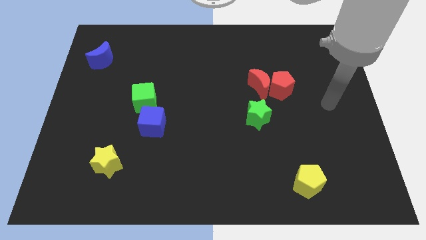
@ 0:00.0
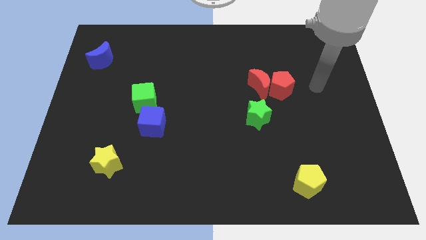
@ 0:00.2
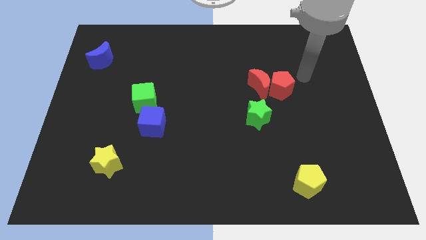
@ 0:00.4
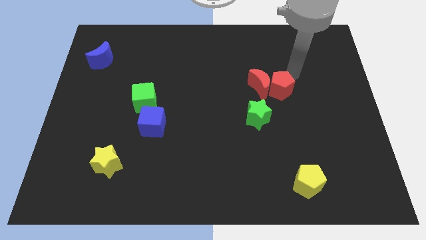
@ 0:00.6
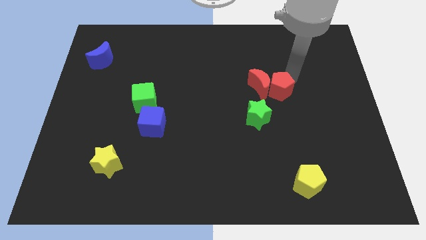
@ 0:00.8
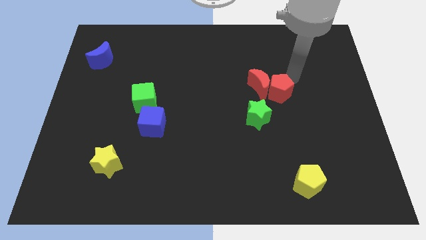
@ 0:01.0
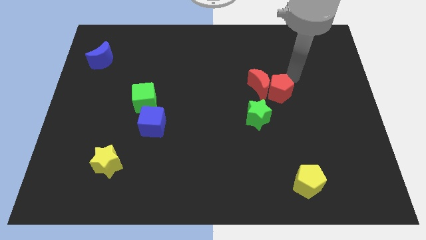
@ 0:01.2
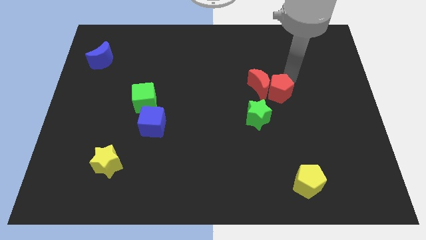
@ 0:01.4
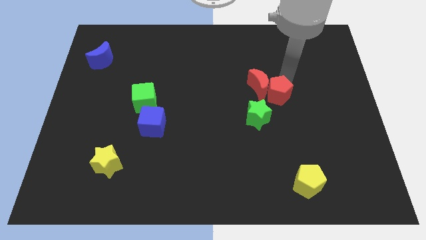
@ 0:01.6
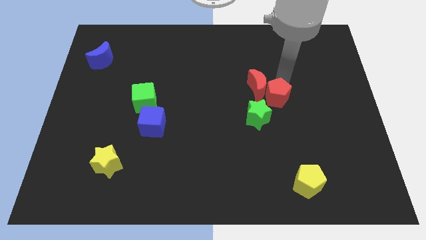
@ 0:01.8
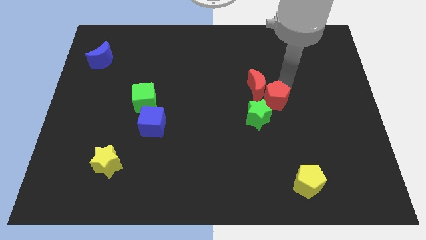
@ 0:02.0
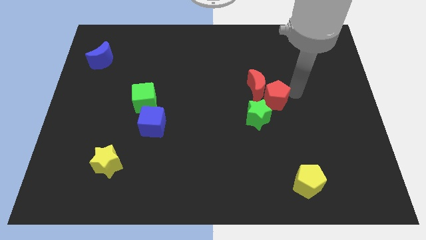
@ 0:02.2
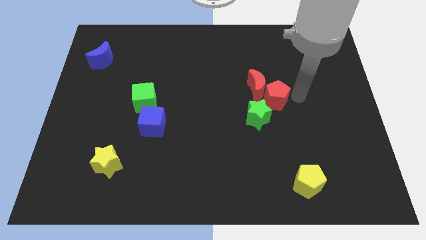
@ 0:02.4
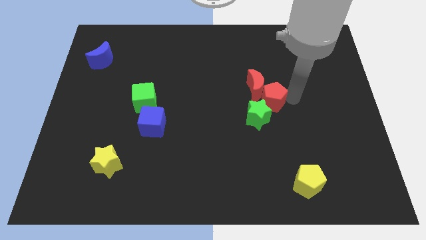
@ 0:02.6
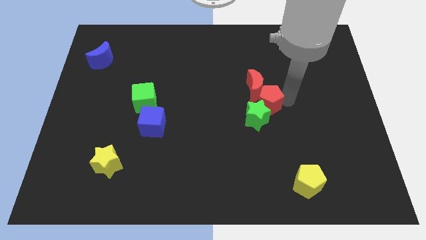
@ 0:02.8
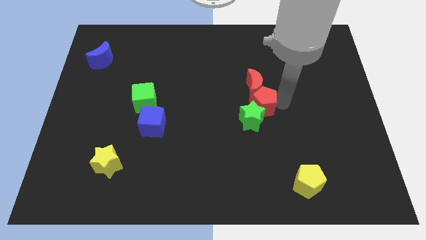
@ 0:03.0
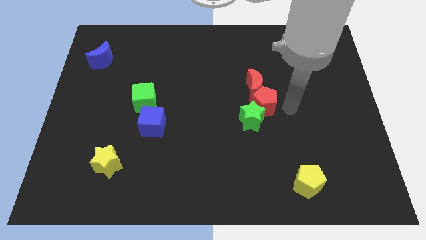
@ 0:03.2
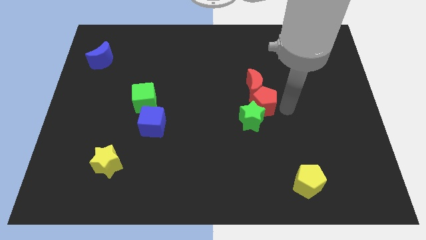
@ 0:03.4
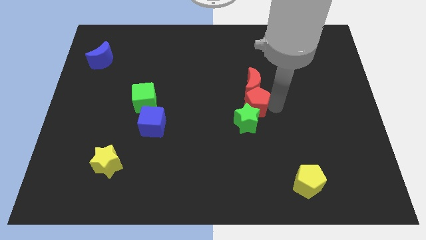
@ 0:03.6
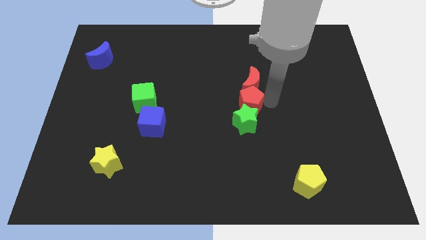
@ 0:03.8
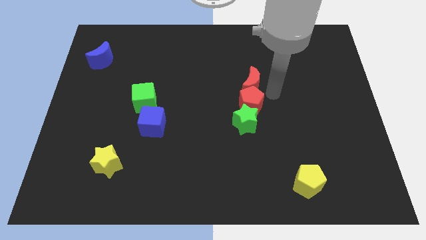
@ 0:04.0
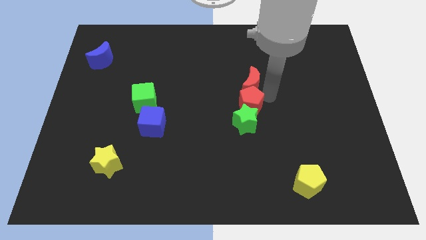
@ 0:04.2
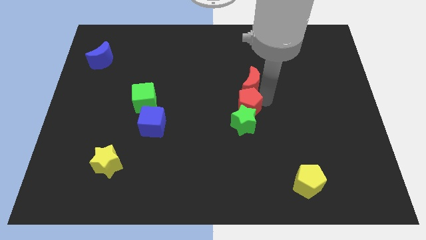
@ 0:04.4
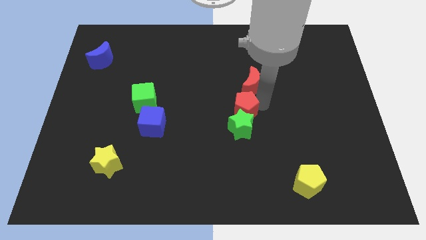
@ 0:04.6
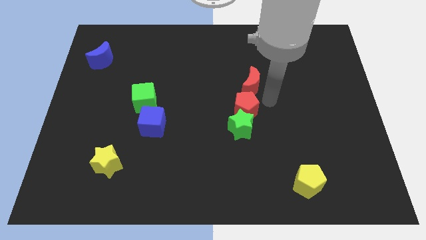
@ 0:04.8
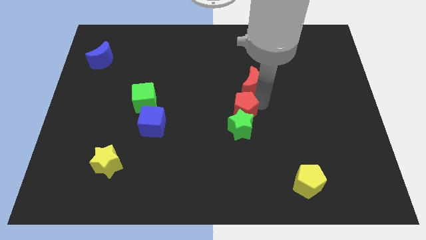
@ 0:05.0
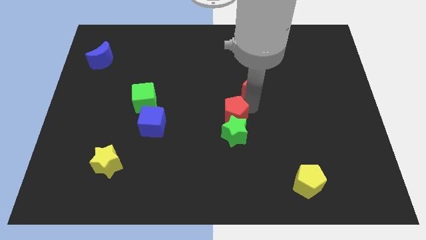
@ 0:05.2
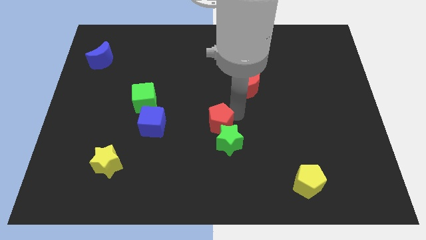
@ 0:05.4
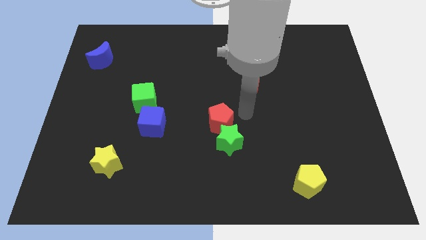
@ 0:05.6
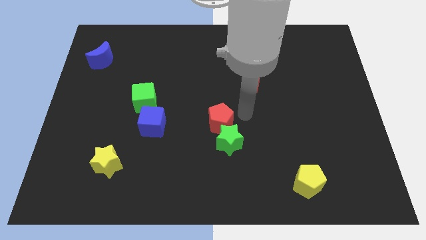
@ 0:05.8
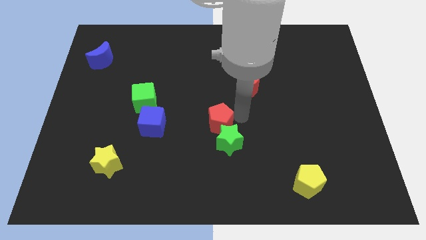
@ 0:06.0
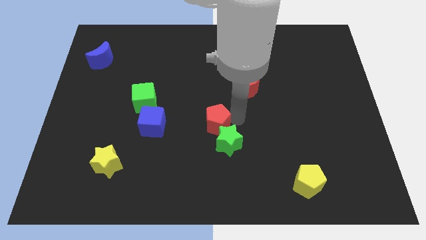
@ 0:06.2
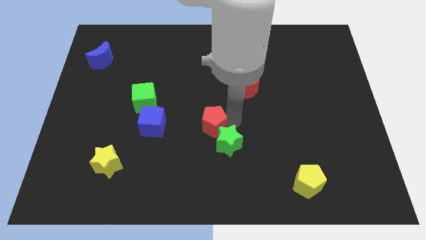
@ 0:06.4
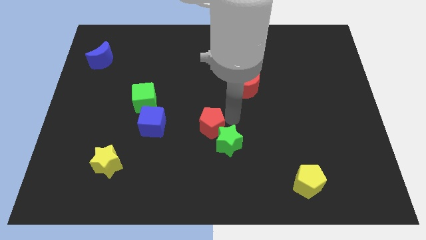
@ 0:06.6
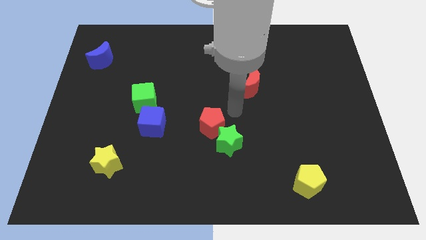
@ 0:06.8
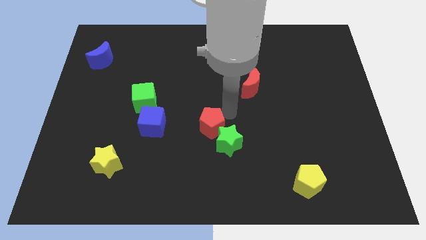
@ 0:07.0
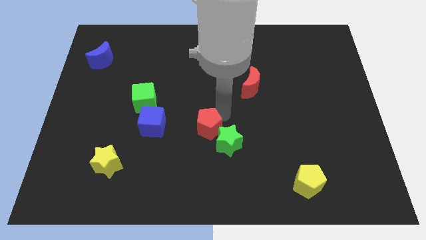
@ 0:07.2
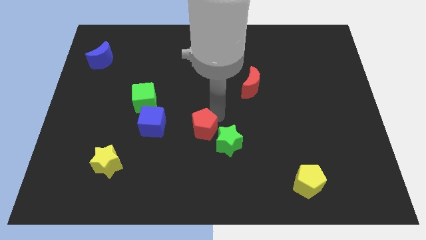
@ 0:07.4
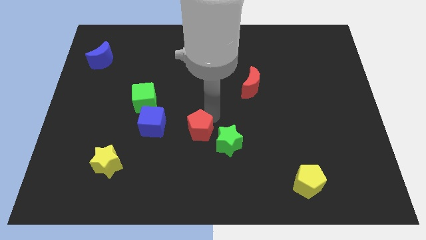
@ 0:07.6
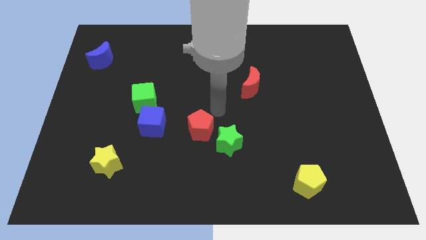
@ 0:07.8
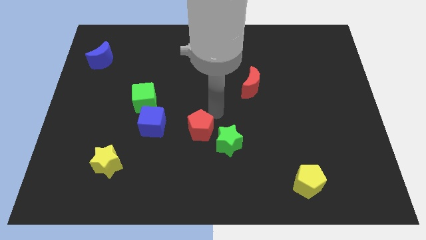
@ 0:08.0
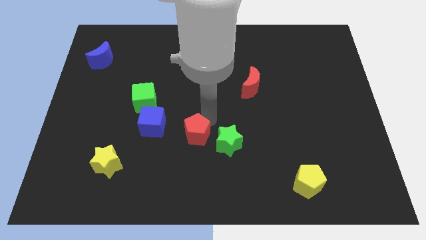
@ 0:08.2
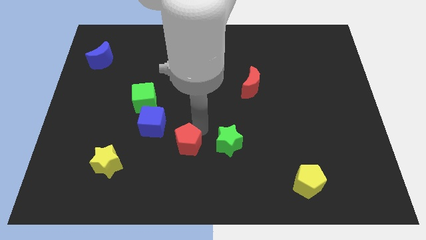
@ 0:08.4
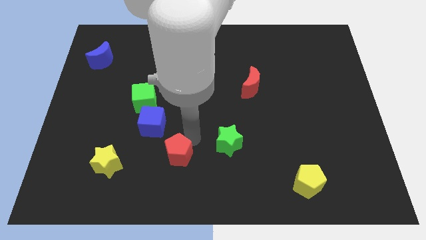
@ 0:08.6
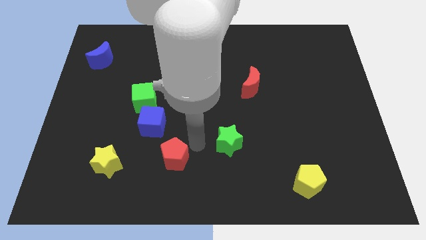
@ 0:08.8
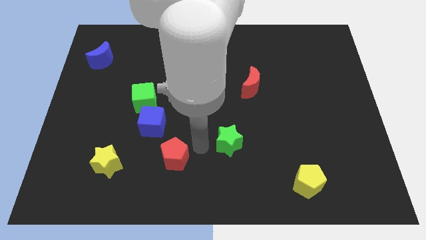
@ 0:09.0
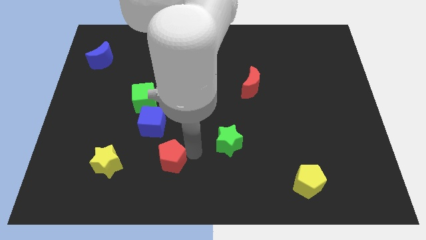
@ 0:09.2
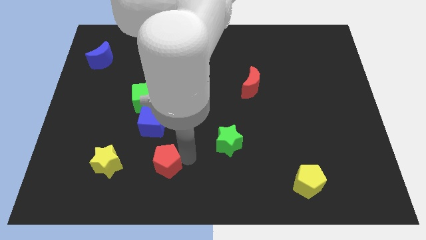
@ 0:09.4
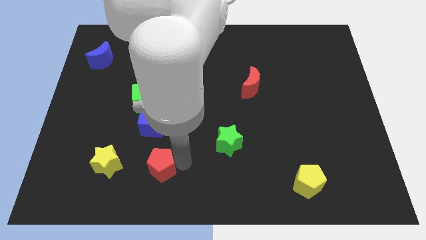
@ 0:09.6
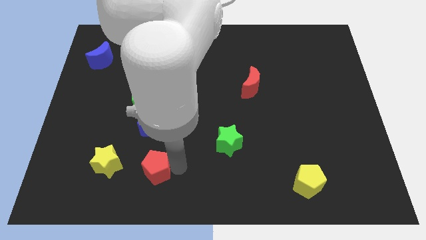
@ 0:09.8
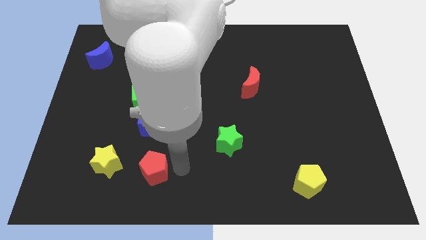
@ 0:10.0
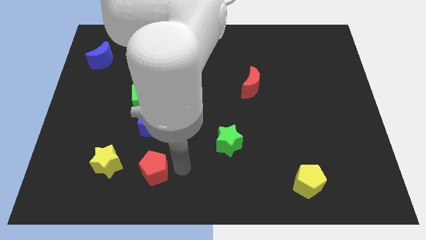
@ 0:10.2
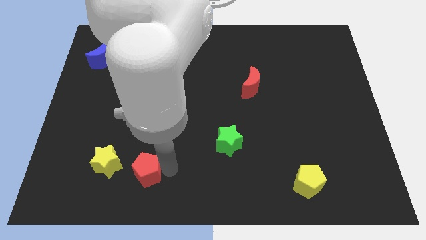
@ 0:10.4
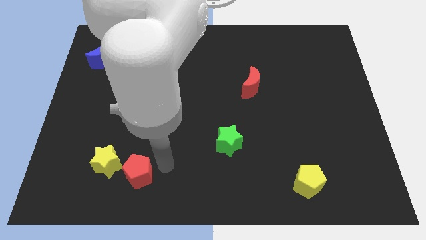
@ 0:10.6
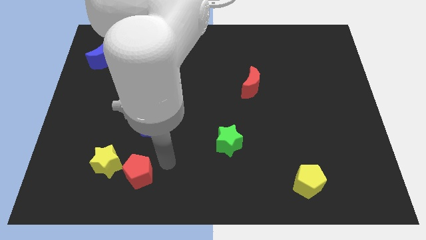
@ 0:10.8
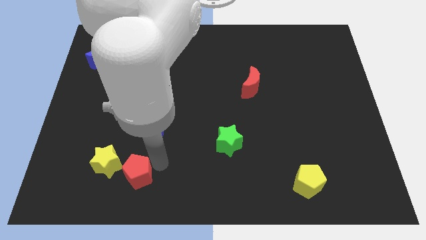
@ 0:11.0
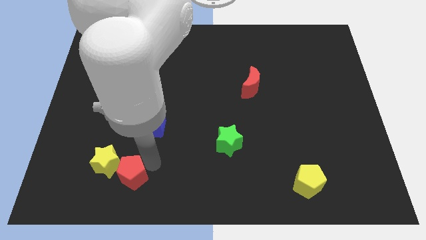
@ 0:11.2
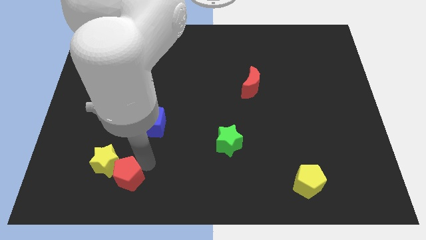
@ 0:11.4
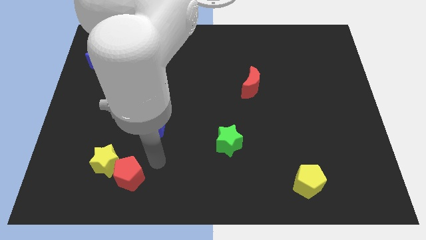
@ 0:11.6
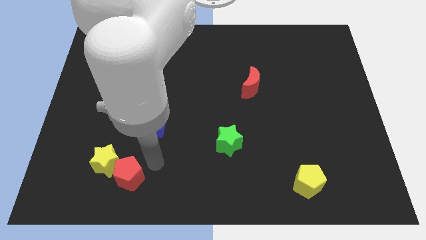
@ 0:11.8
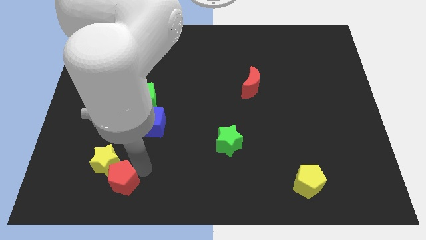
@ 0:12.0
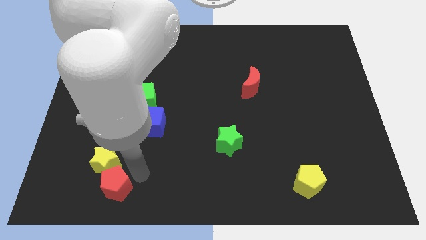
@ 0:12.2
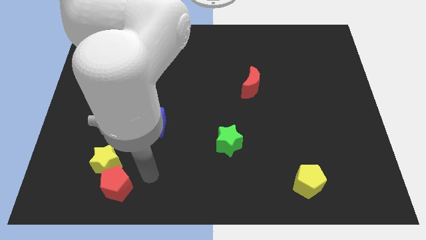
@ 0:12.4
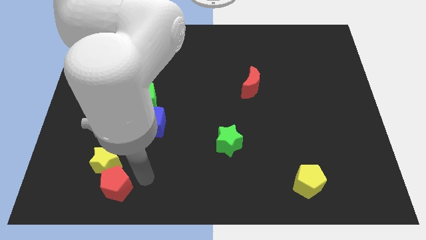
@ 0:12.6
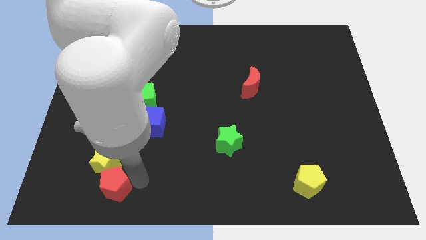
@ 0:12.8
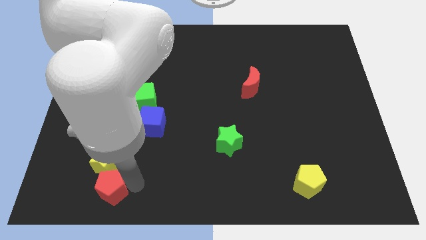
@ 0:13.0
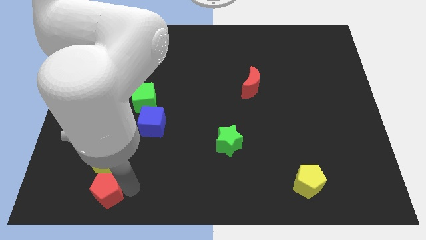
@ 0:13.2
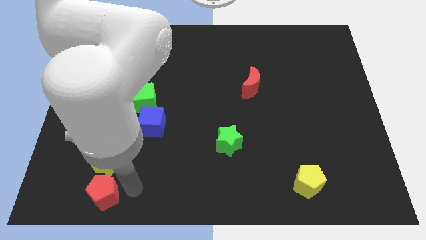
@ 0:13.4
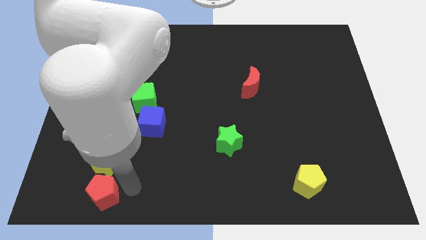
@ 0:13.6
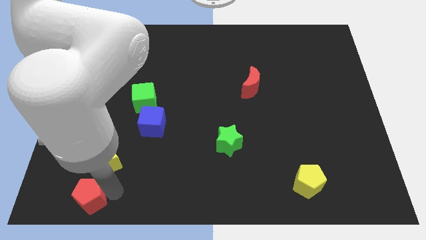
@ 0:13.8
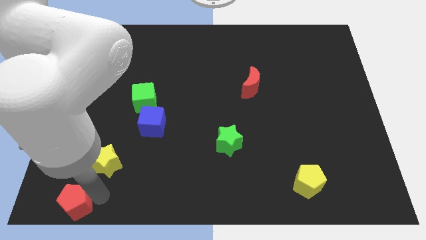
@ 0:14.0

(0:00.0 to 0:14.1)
push the red pentagon to the bottom left of the board
